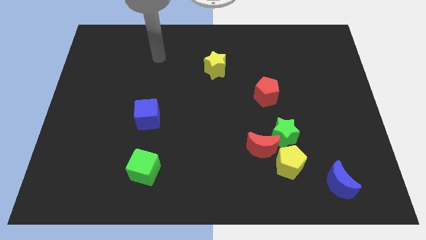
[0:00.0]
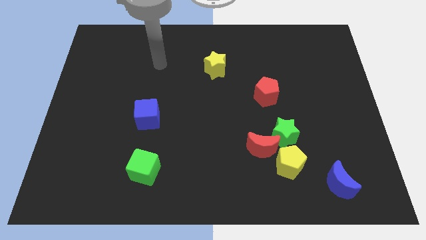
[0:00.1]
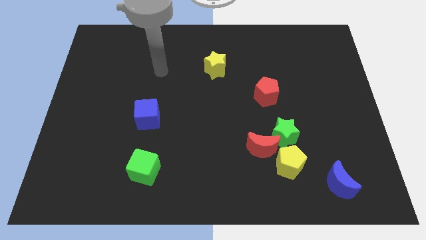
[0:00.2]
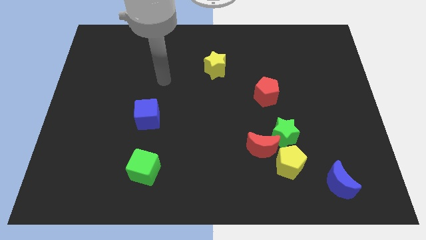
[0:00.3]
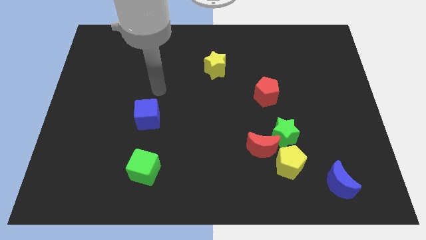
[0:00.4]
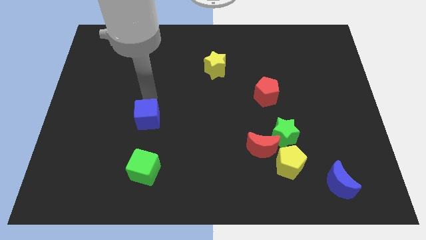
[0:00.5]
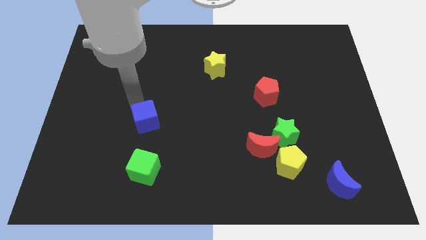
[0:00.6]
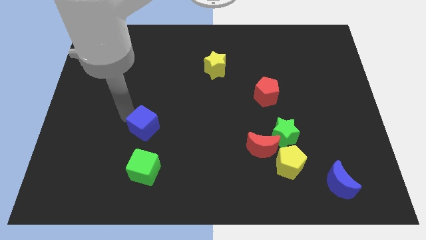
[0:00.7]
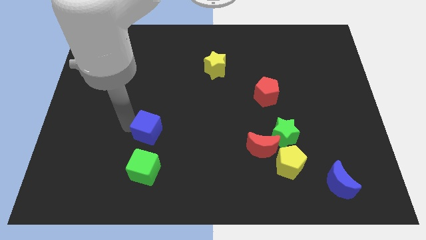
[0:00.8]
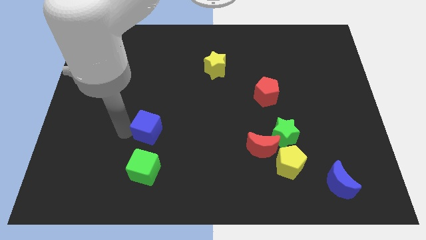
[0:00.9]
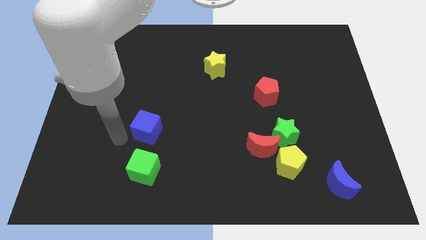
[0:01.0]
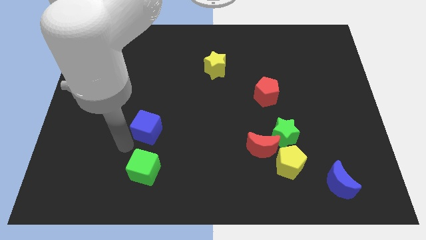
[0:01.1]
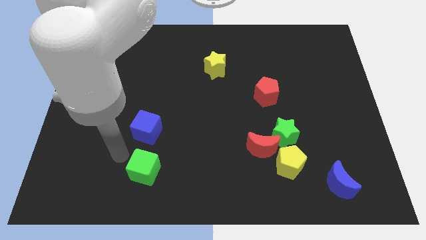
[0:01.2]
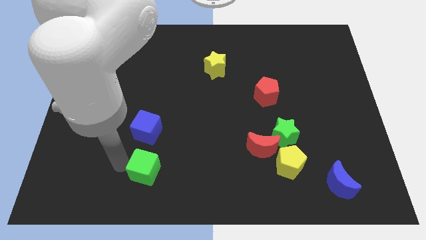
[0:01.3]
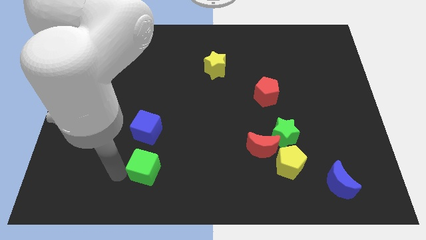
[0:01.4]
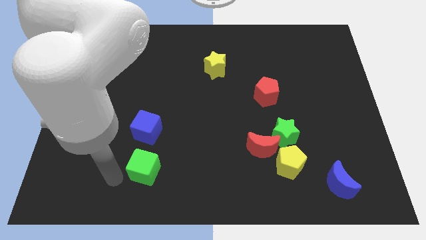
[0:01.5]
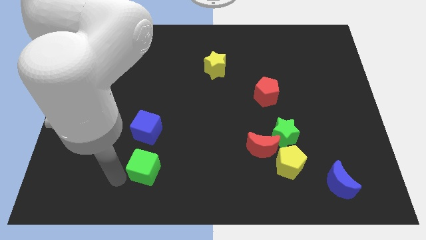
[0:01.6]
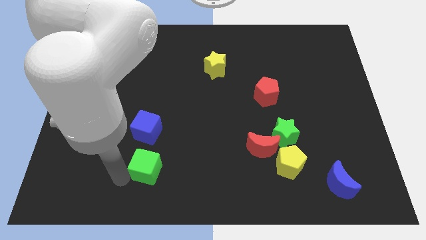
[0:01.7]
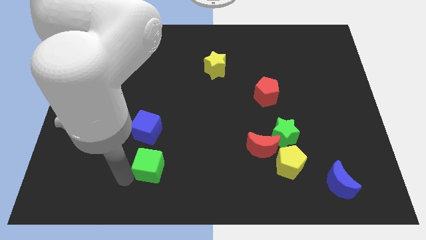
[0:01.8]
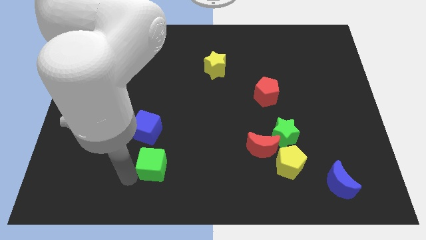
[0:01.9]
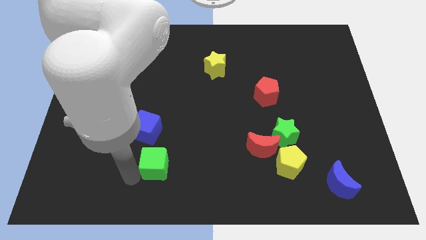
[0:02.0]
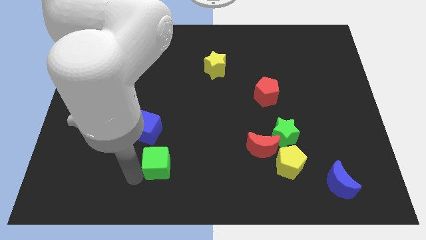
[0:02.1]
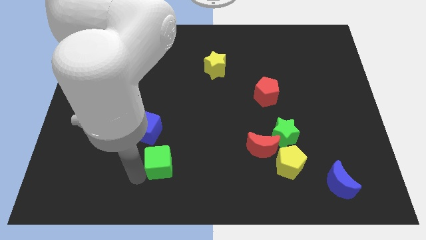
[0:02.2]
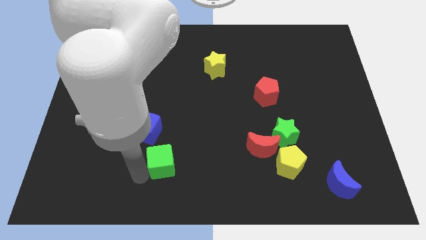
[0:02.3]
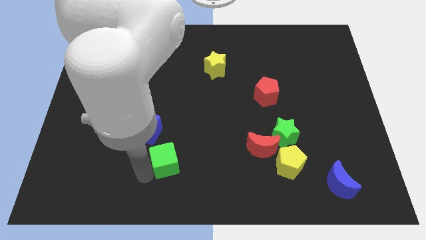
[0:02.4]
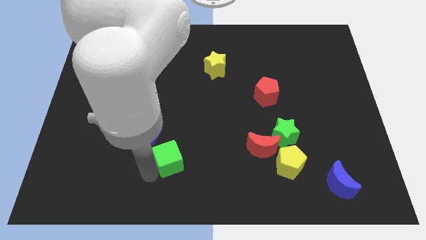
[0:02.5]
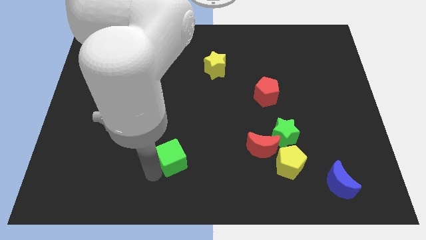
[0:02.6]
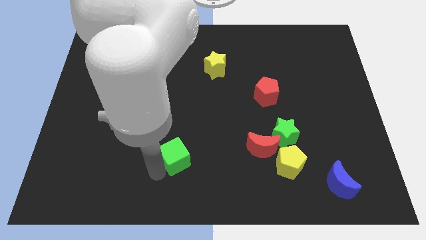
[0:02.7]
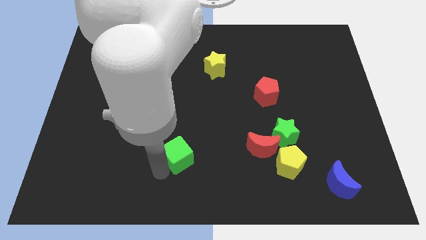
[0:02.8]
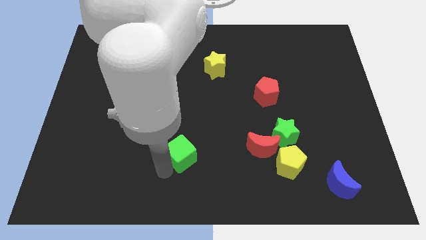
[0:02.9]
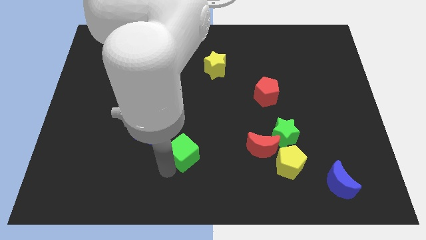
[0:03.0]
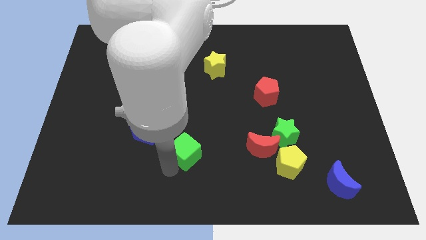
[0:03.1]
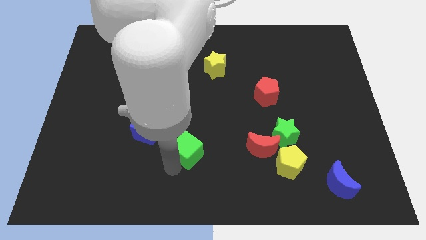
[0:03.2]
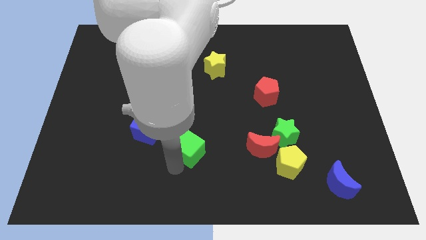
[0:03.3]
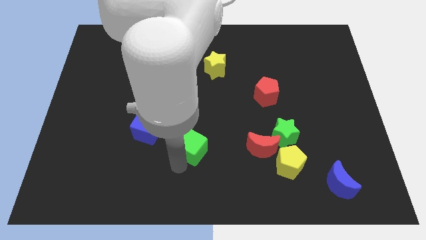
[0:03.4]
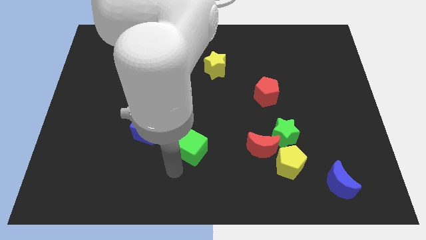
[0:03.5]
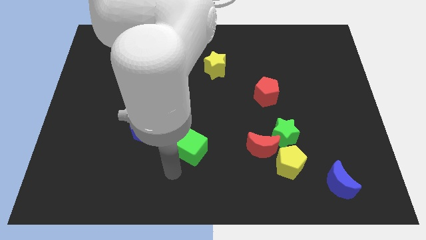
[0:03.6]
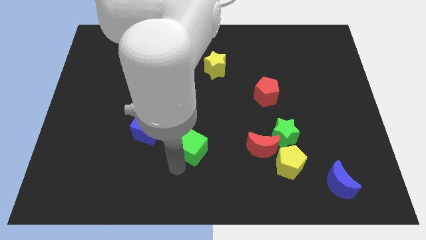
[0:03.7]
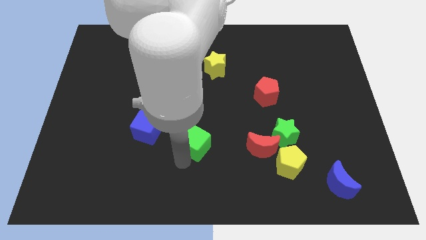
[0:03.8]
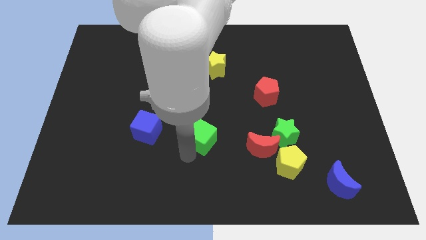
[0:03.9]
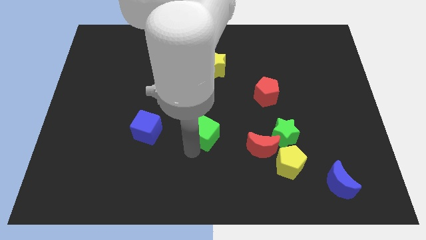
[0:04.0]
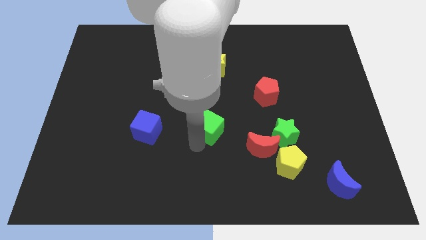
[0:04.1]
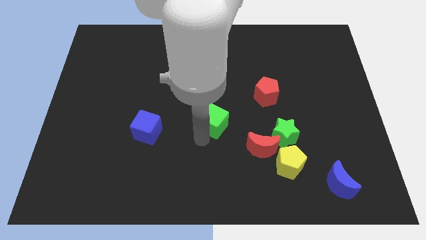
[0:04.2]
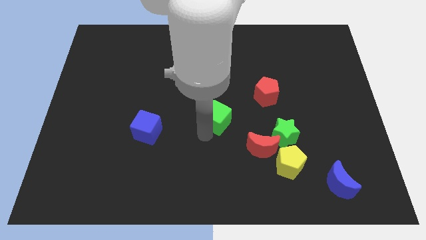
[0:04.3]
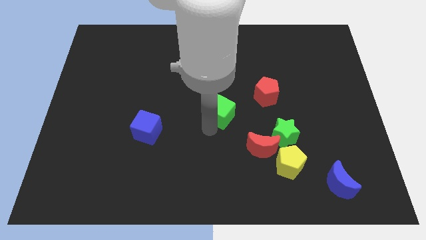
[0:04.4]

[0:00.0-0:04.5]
move the green cube up and right diagonally

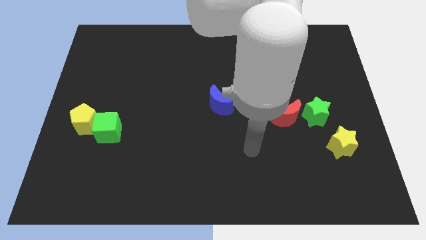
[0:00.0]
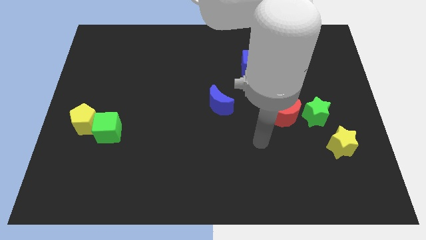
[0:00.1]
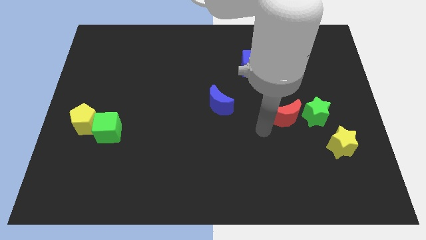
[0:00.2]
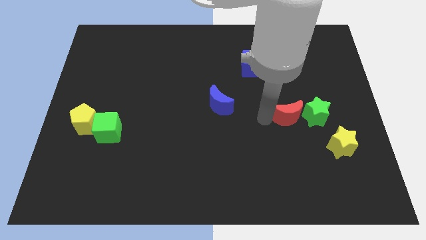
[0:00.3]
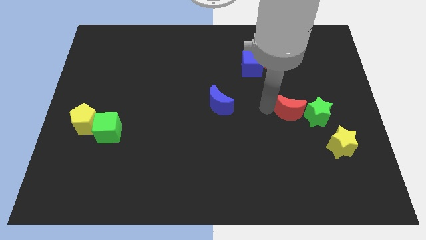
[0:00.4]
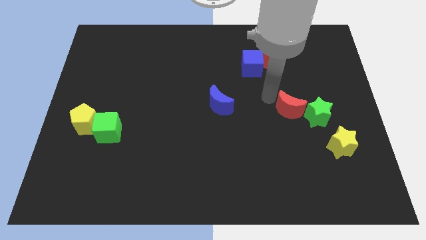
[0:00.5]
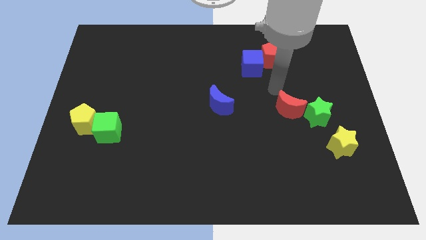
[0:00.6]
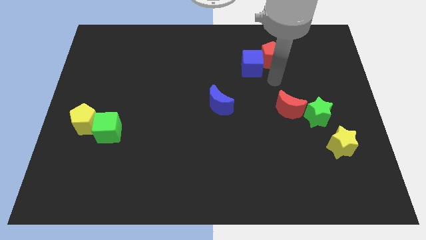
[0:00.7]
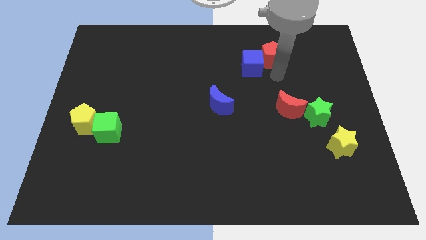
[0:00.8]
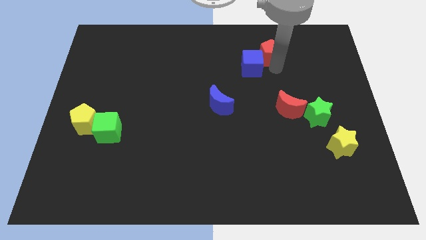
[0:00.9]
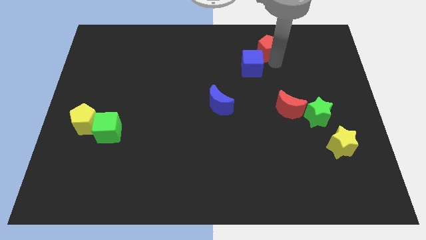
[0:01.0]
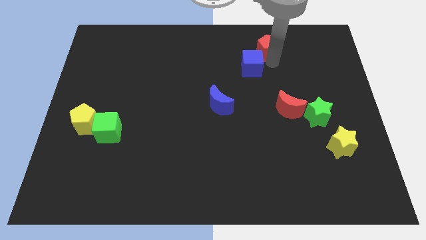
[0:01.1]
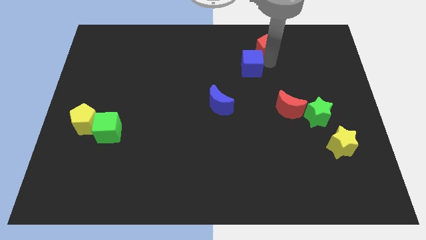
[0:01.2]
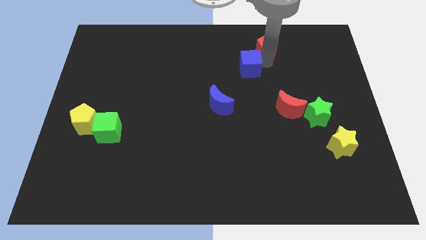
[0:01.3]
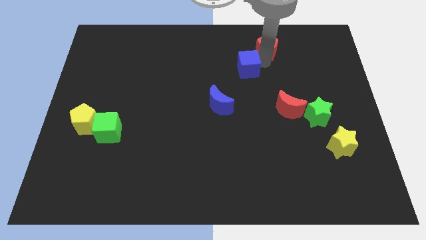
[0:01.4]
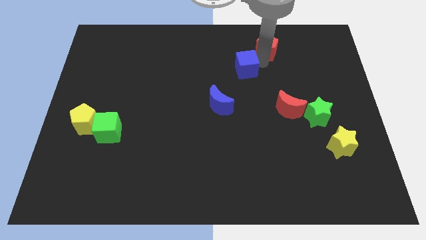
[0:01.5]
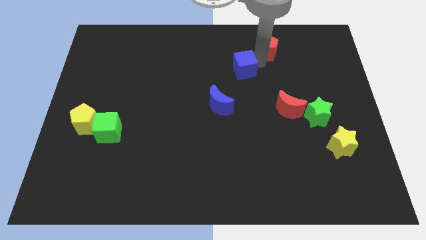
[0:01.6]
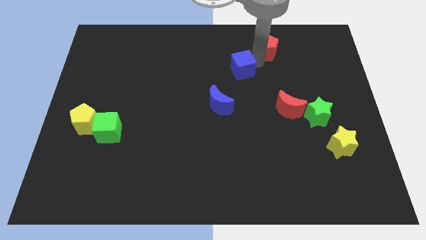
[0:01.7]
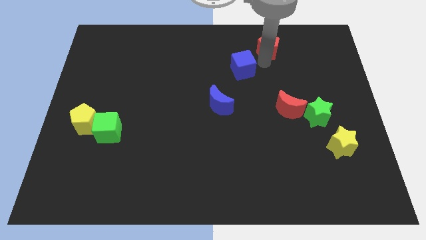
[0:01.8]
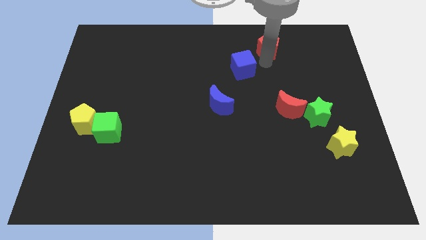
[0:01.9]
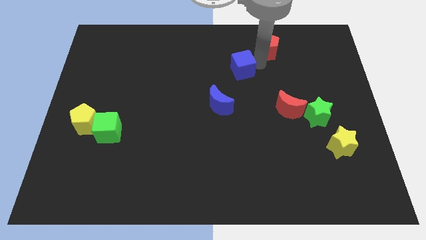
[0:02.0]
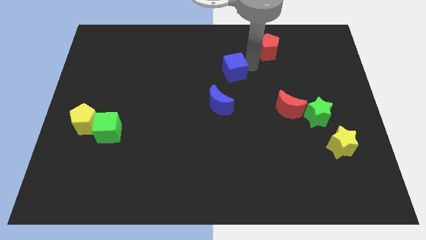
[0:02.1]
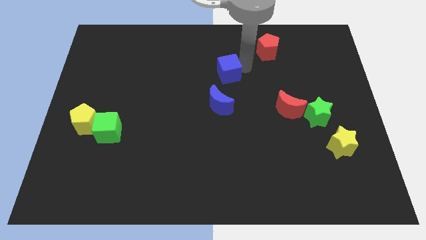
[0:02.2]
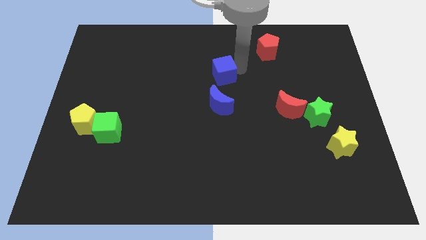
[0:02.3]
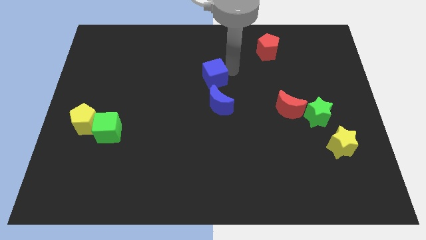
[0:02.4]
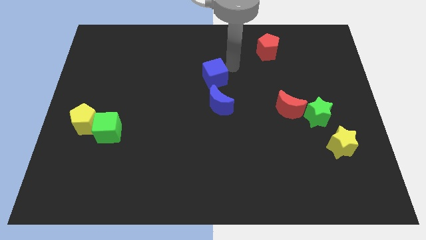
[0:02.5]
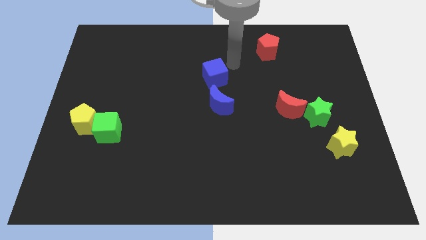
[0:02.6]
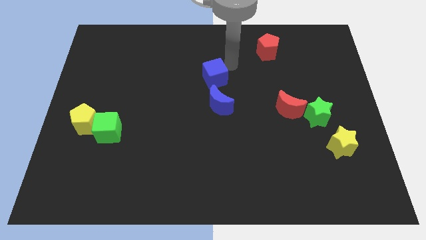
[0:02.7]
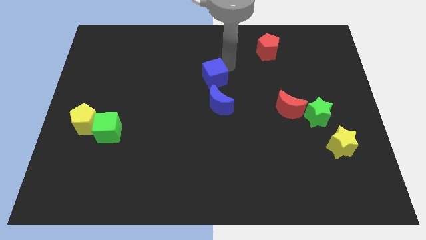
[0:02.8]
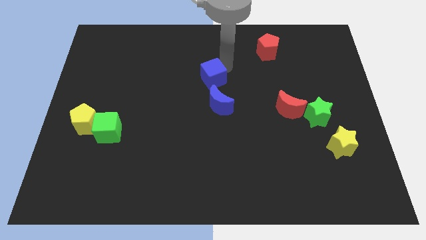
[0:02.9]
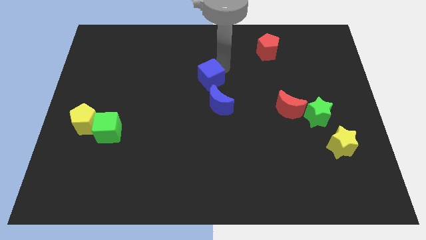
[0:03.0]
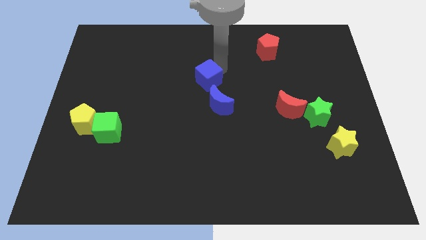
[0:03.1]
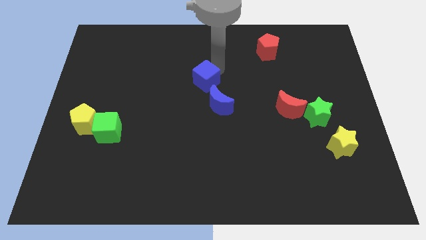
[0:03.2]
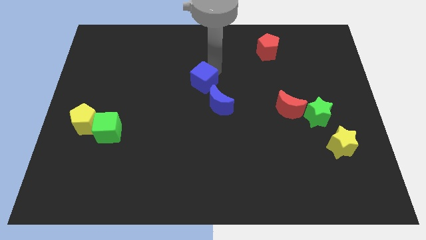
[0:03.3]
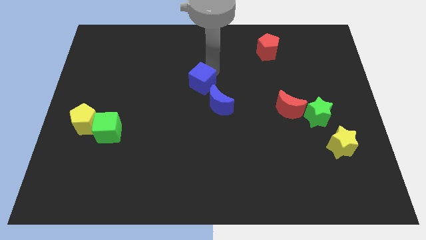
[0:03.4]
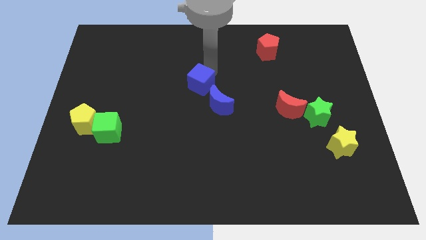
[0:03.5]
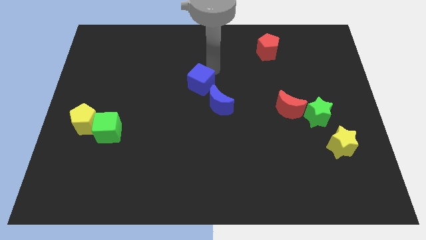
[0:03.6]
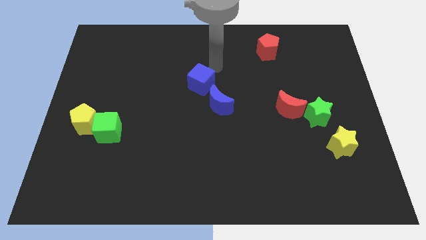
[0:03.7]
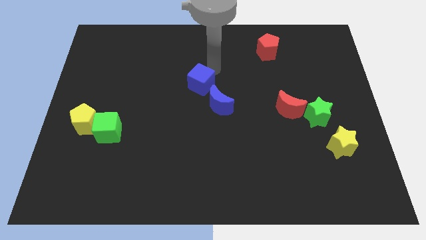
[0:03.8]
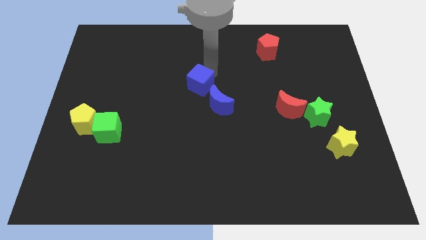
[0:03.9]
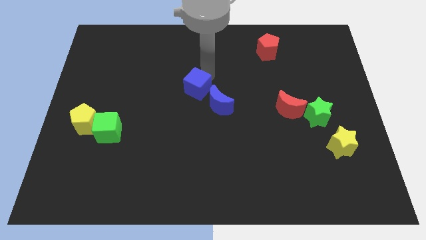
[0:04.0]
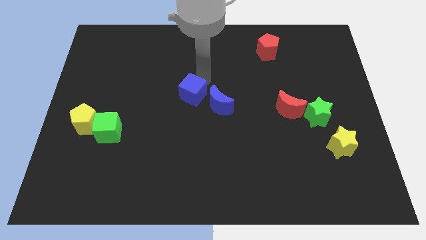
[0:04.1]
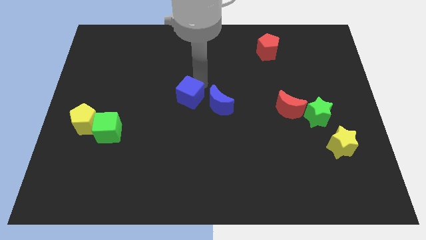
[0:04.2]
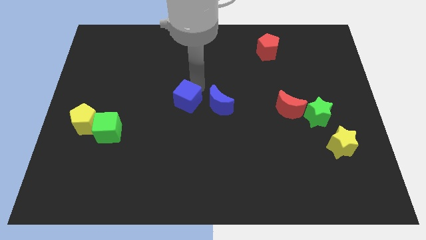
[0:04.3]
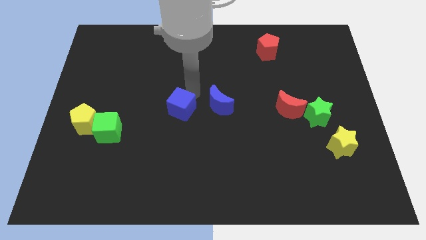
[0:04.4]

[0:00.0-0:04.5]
move the blue cube downwards and to the left diagonally
